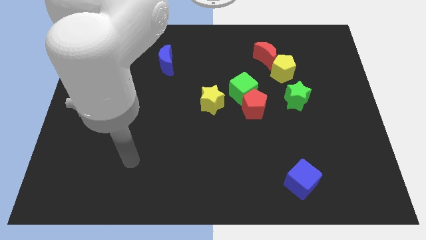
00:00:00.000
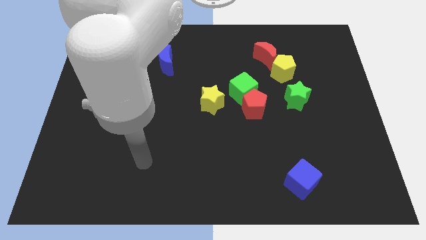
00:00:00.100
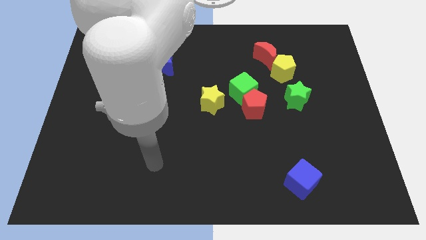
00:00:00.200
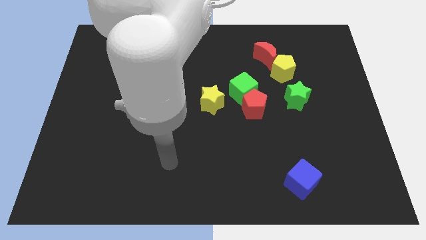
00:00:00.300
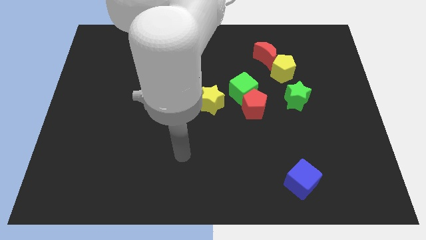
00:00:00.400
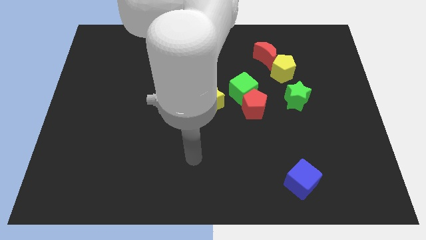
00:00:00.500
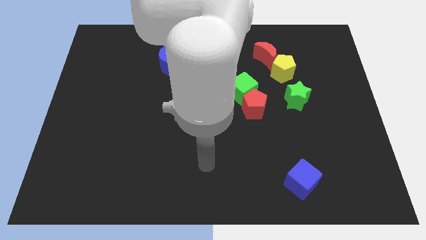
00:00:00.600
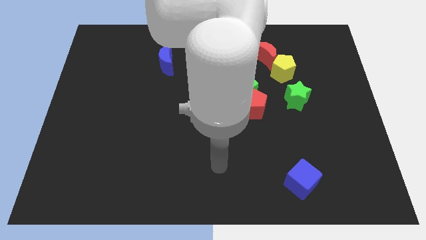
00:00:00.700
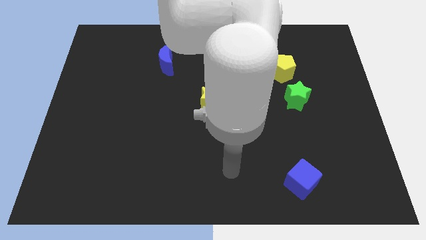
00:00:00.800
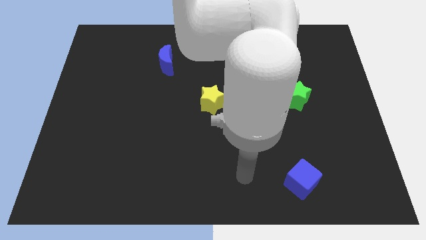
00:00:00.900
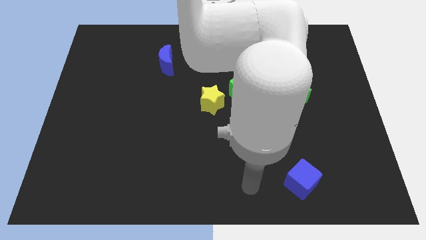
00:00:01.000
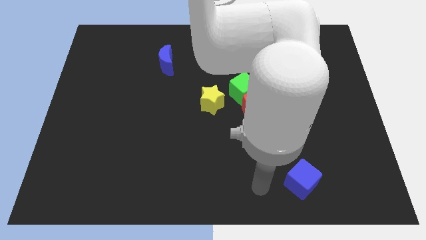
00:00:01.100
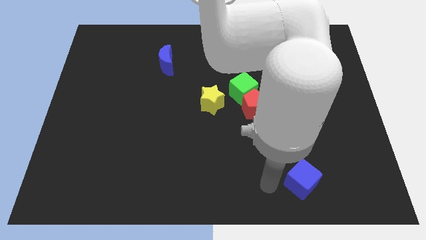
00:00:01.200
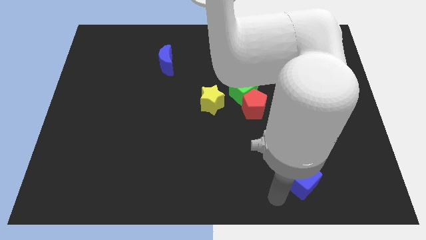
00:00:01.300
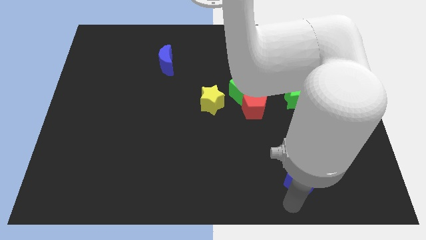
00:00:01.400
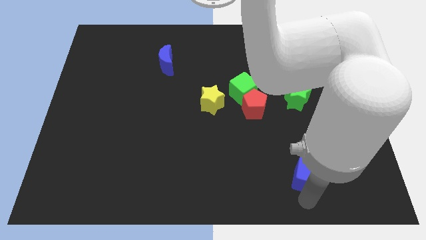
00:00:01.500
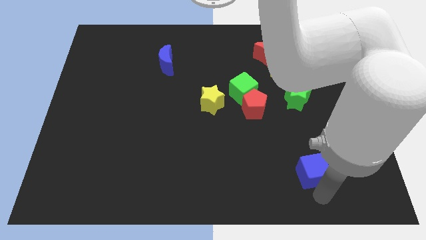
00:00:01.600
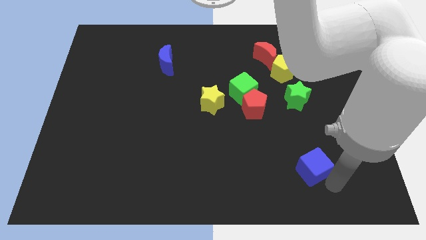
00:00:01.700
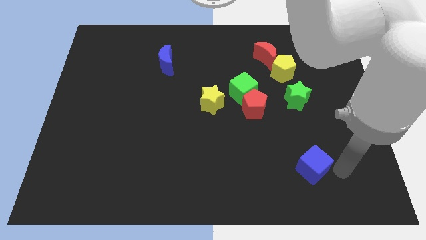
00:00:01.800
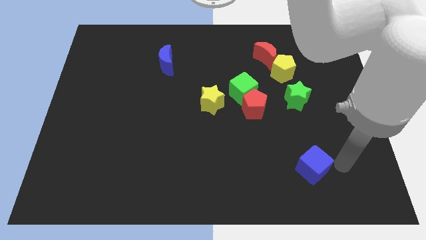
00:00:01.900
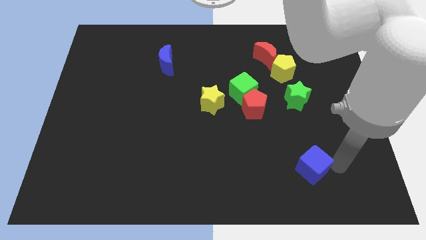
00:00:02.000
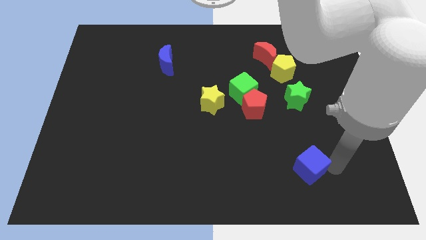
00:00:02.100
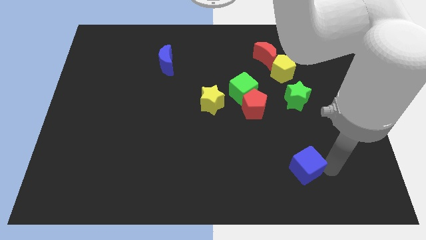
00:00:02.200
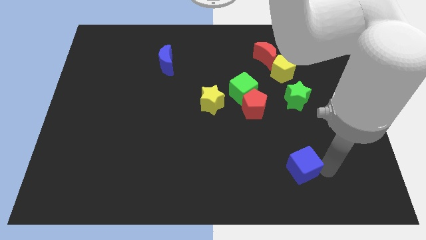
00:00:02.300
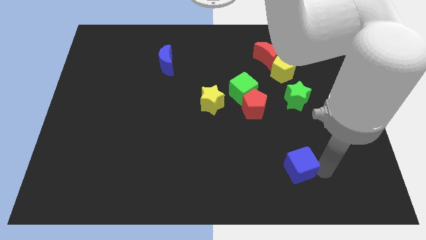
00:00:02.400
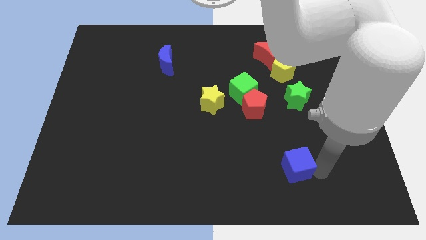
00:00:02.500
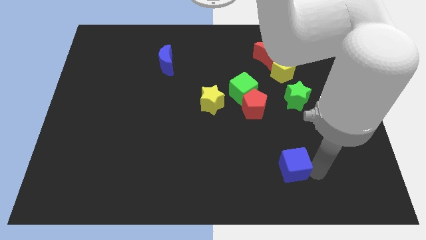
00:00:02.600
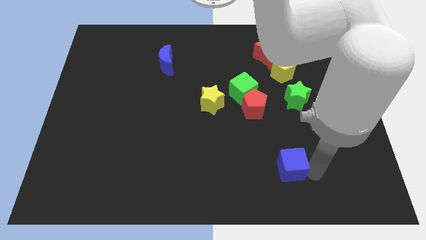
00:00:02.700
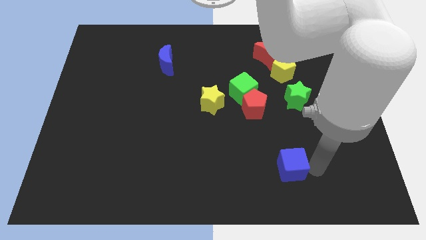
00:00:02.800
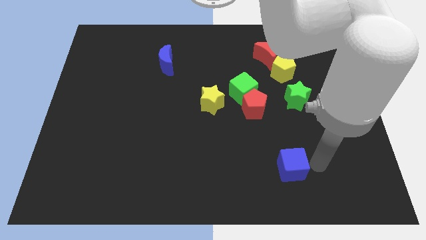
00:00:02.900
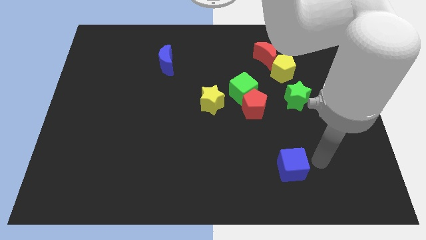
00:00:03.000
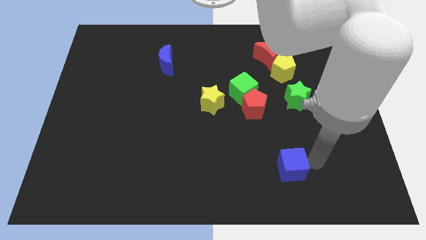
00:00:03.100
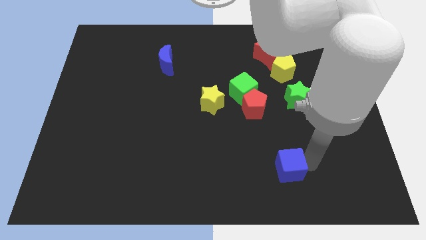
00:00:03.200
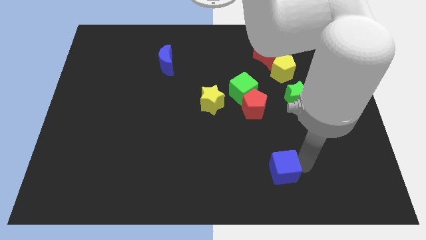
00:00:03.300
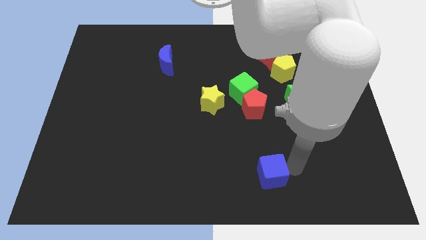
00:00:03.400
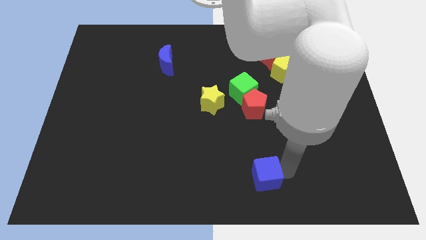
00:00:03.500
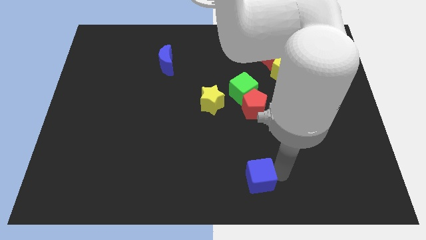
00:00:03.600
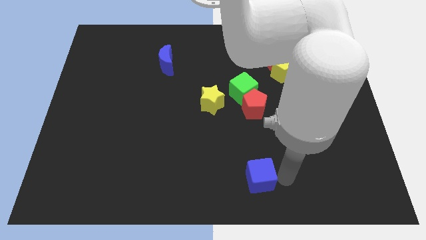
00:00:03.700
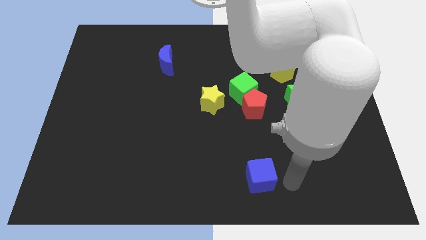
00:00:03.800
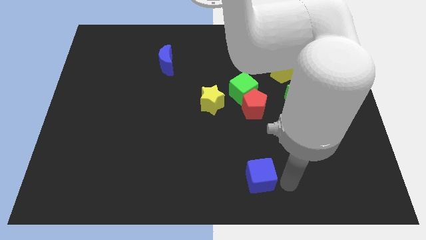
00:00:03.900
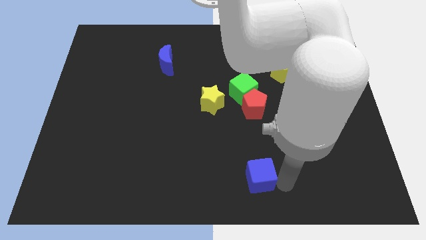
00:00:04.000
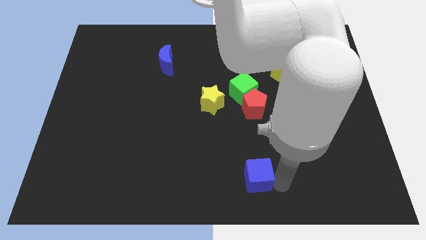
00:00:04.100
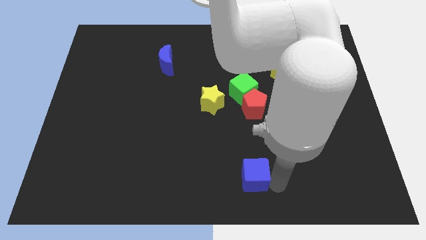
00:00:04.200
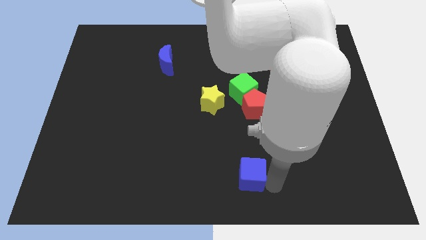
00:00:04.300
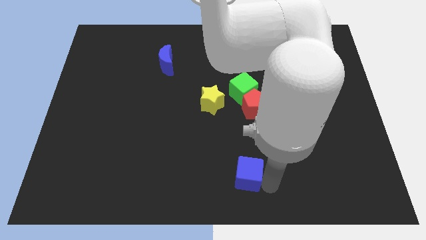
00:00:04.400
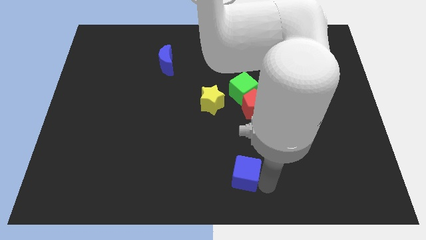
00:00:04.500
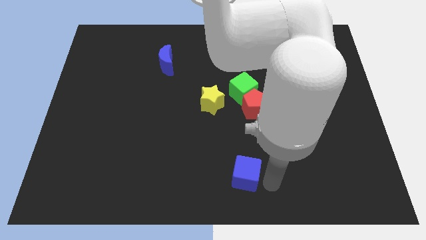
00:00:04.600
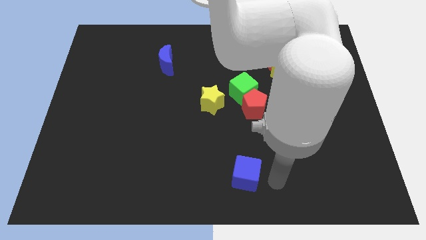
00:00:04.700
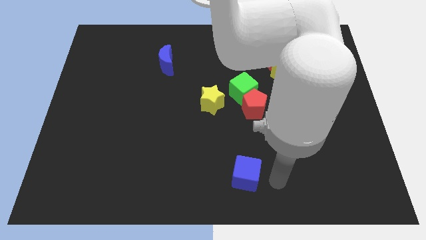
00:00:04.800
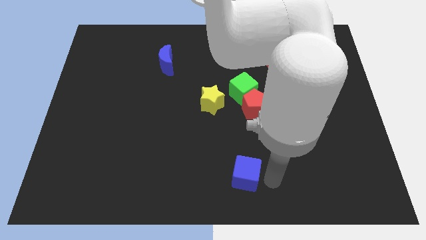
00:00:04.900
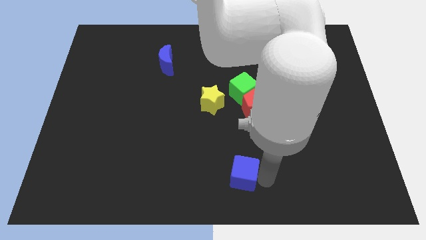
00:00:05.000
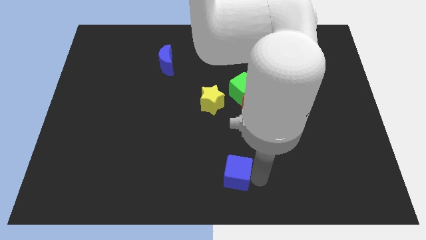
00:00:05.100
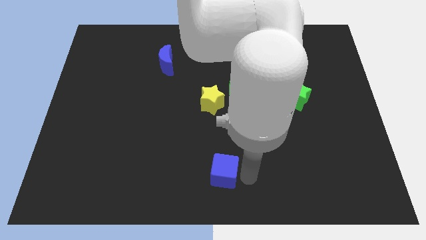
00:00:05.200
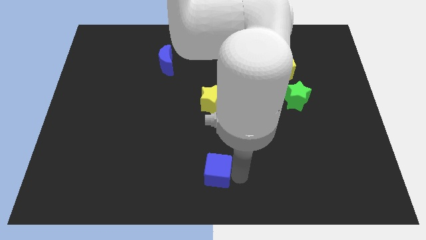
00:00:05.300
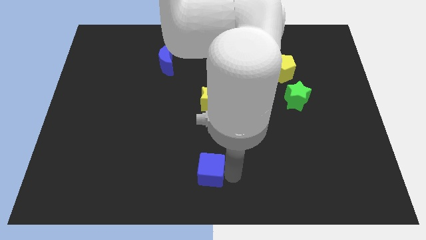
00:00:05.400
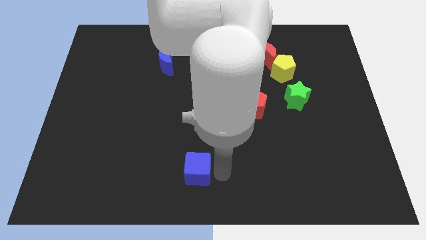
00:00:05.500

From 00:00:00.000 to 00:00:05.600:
slide the blue cube left

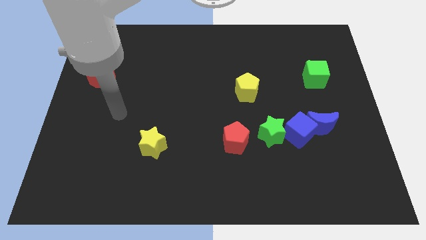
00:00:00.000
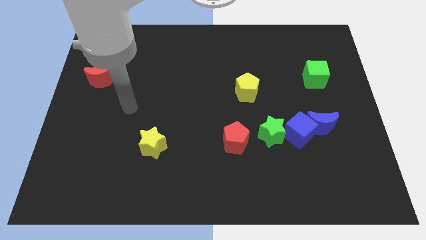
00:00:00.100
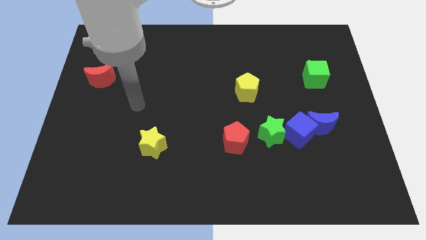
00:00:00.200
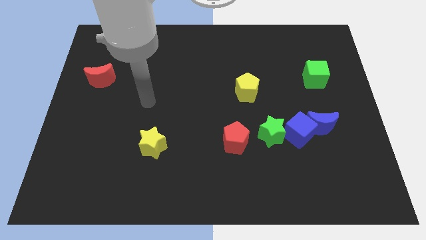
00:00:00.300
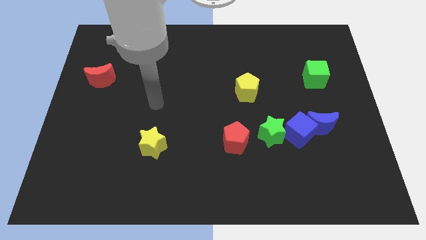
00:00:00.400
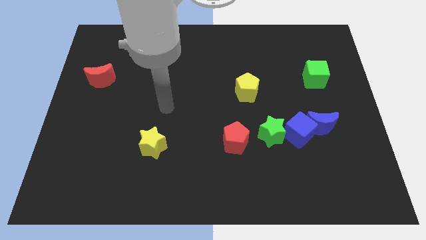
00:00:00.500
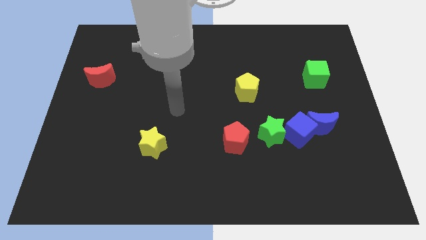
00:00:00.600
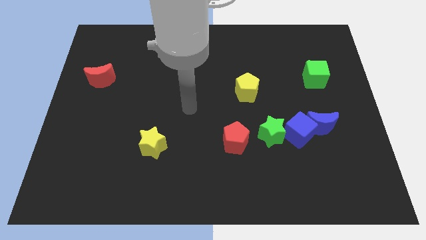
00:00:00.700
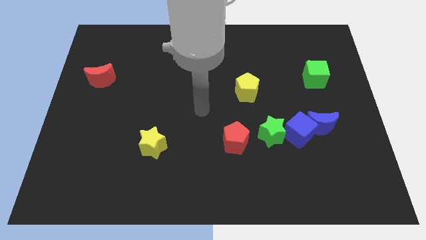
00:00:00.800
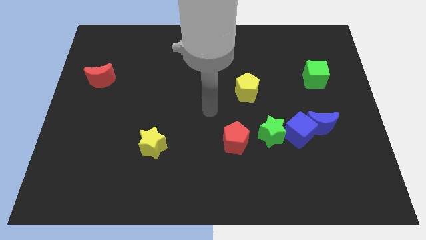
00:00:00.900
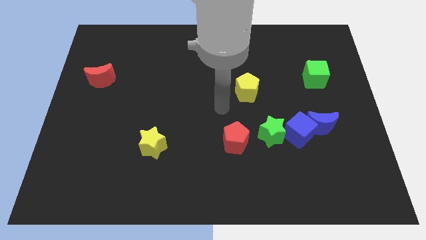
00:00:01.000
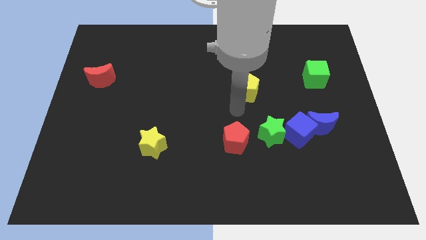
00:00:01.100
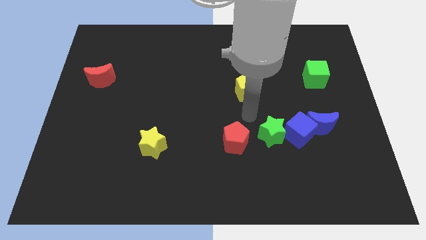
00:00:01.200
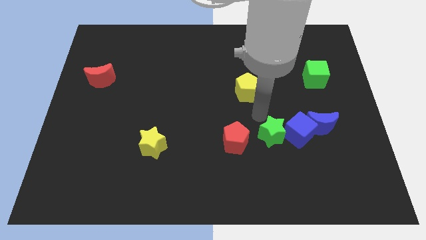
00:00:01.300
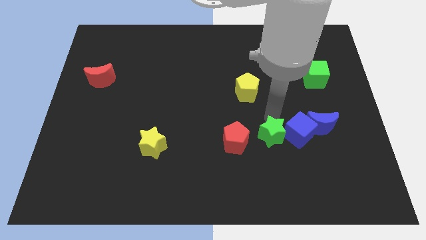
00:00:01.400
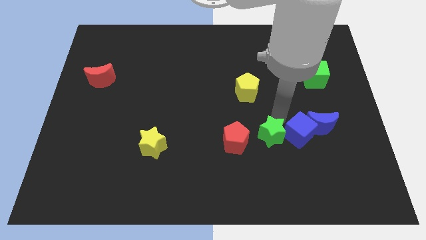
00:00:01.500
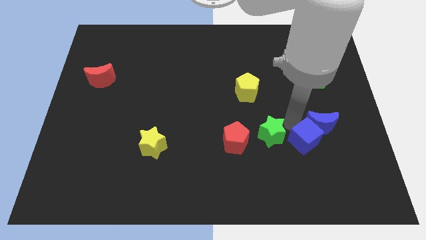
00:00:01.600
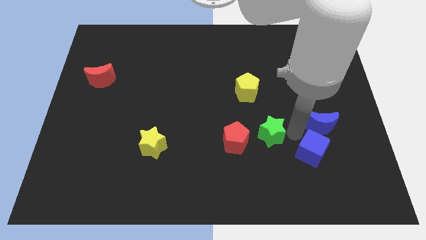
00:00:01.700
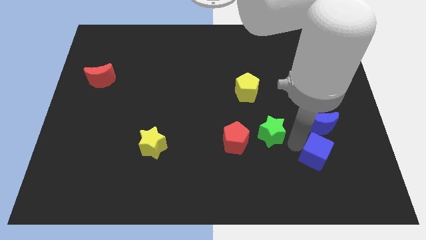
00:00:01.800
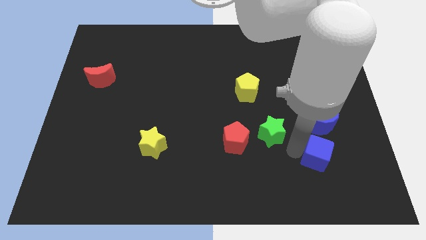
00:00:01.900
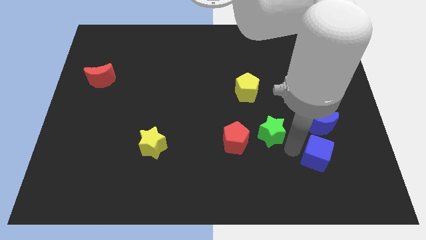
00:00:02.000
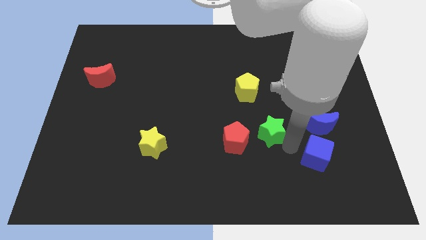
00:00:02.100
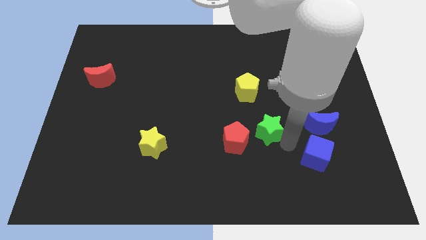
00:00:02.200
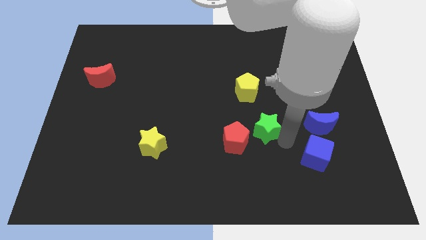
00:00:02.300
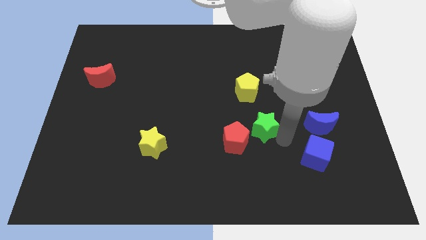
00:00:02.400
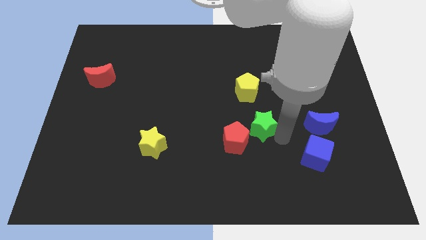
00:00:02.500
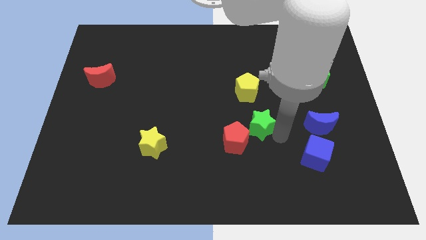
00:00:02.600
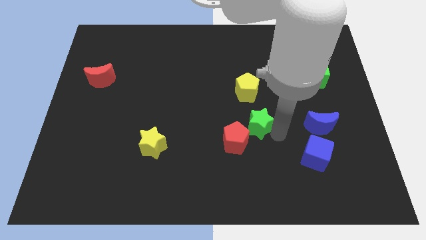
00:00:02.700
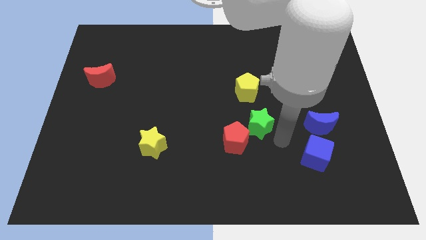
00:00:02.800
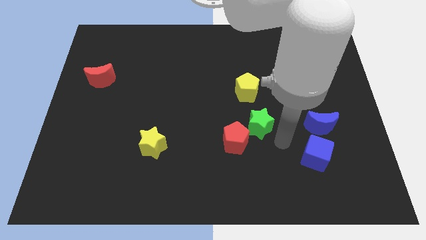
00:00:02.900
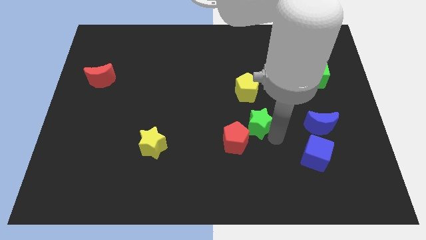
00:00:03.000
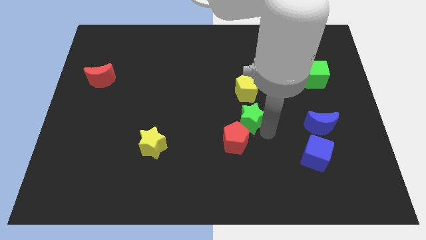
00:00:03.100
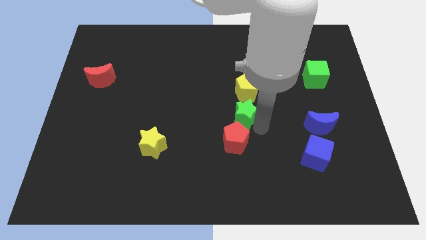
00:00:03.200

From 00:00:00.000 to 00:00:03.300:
slide the green star a little bit up and then left
